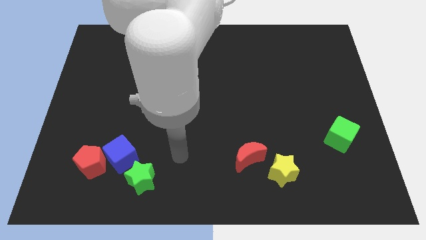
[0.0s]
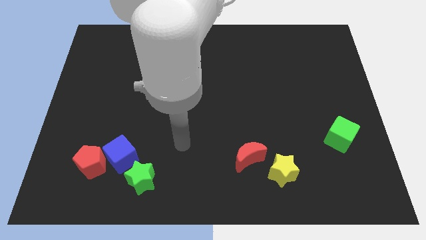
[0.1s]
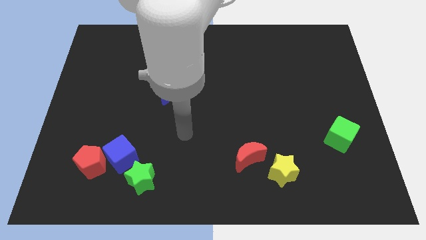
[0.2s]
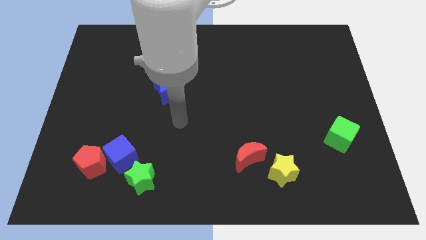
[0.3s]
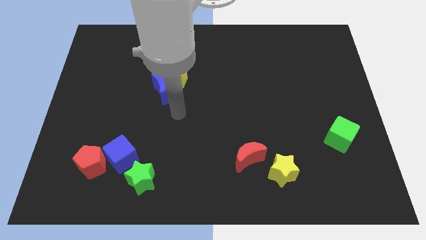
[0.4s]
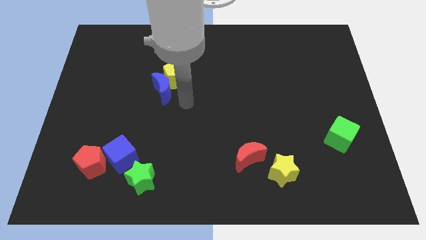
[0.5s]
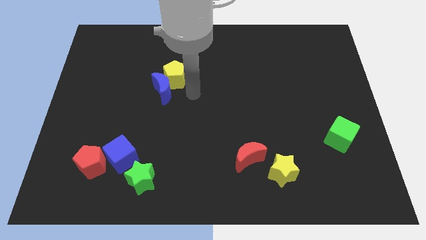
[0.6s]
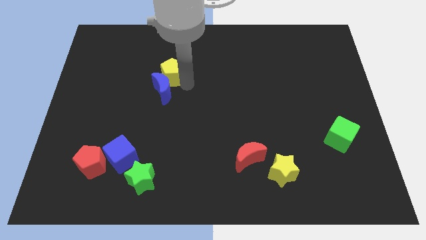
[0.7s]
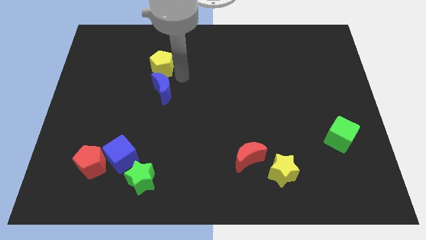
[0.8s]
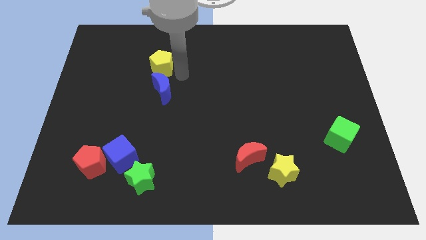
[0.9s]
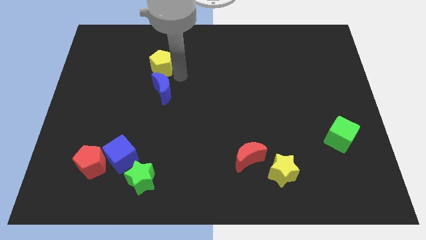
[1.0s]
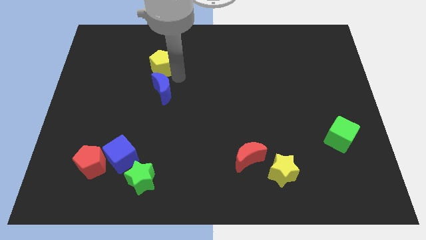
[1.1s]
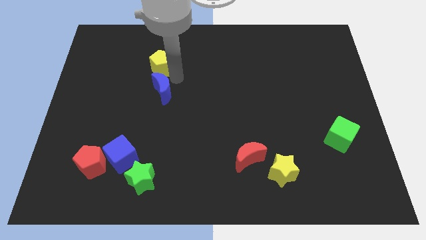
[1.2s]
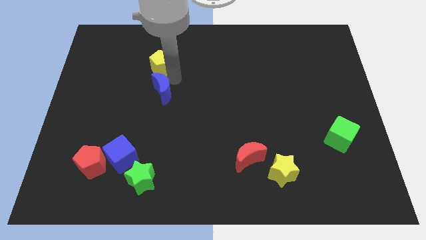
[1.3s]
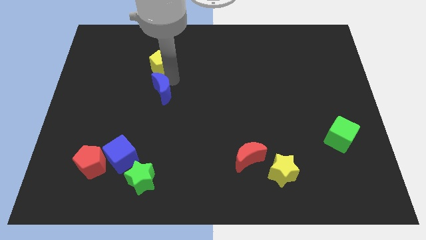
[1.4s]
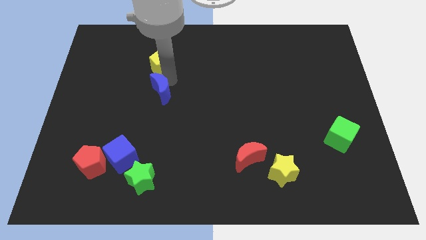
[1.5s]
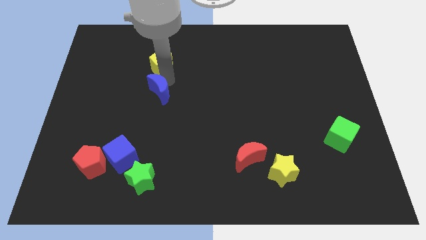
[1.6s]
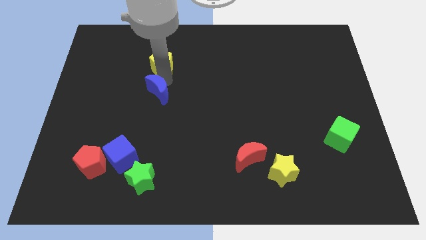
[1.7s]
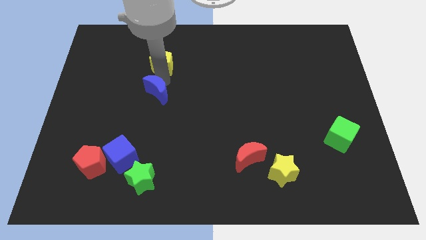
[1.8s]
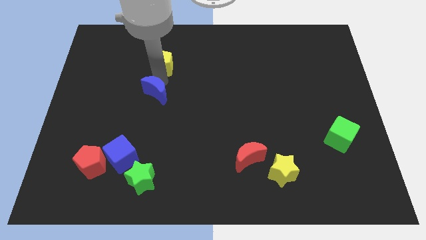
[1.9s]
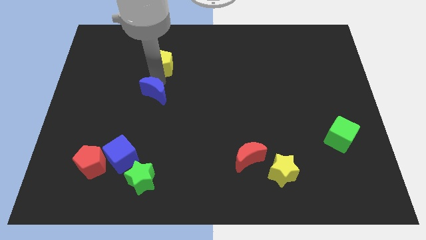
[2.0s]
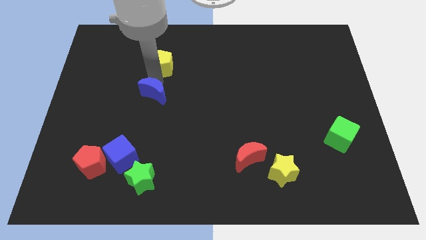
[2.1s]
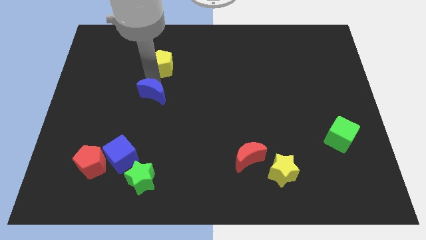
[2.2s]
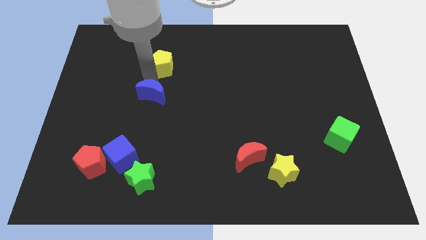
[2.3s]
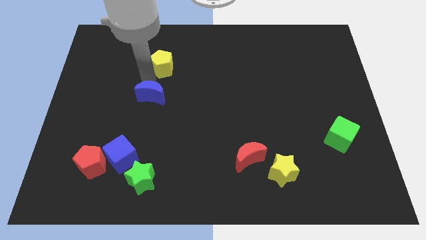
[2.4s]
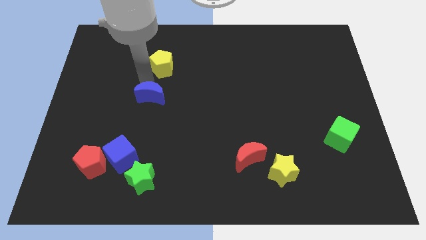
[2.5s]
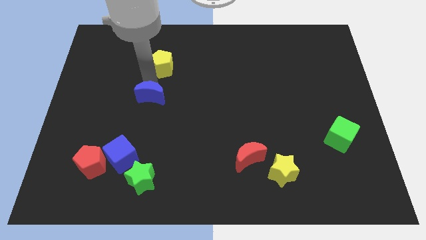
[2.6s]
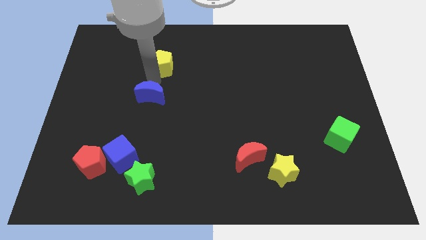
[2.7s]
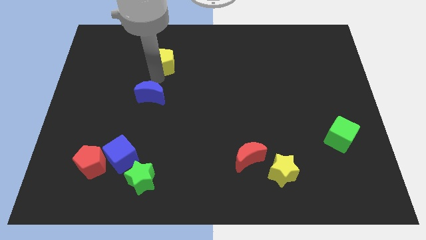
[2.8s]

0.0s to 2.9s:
pull the blue moon apart from the yellow pentagon

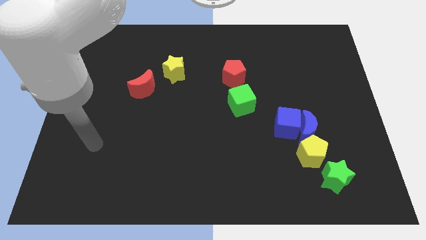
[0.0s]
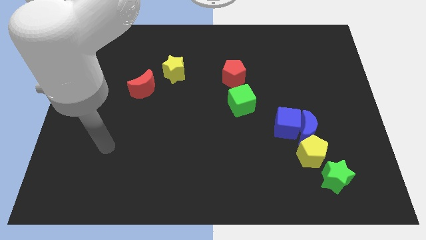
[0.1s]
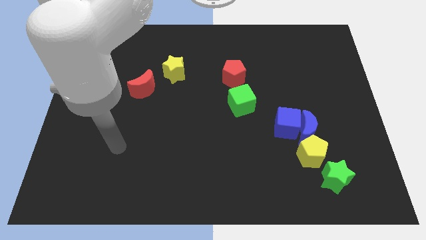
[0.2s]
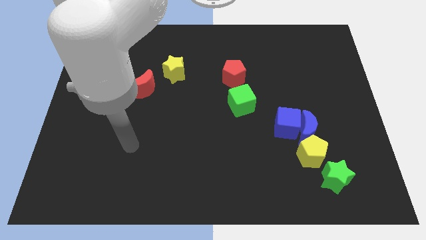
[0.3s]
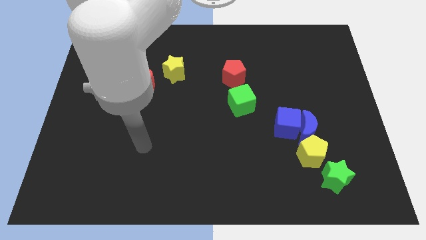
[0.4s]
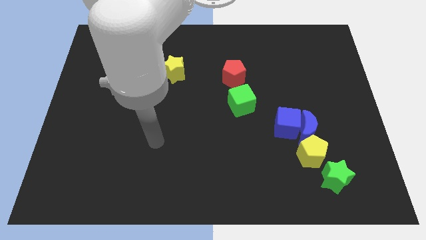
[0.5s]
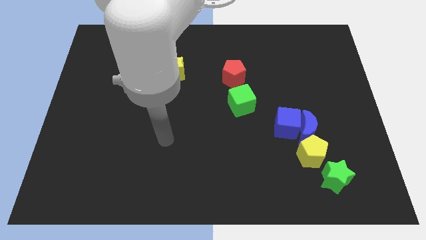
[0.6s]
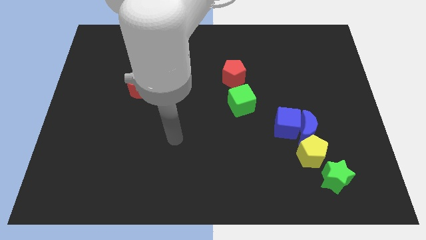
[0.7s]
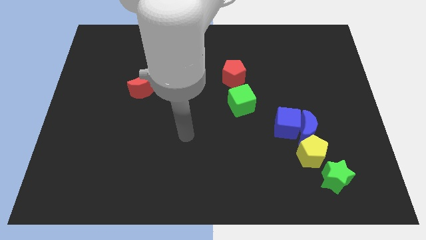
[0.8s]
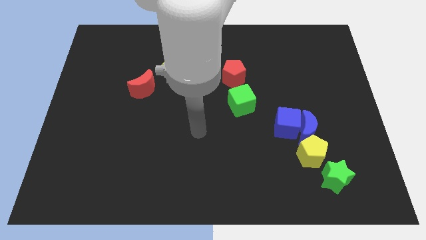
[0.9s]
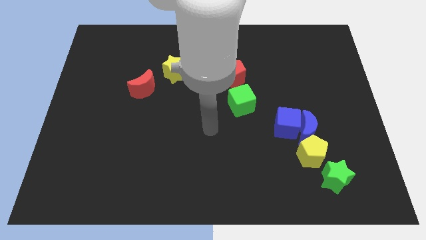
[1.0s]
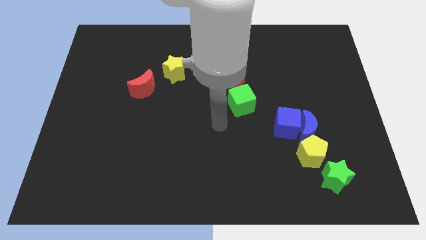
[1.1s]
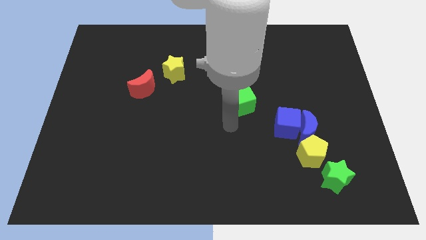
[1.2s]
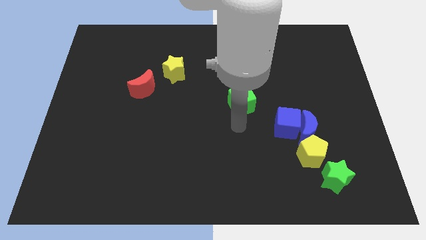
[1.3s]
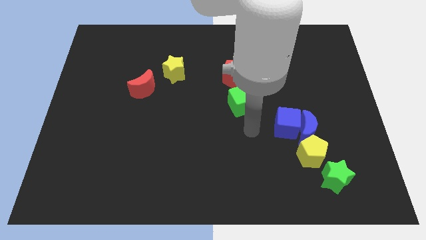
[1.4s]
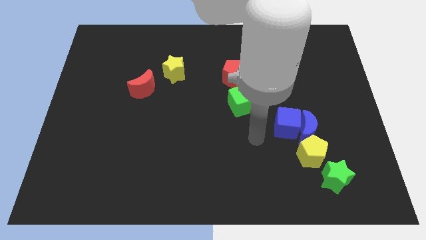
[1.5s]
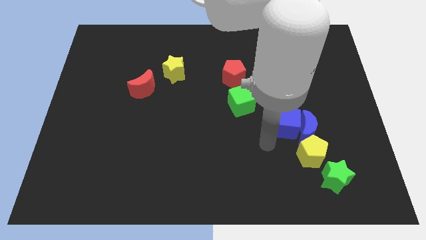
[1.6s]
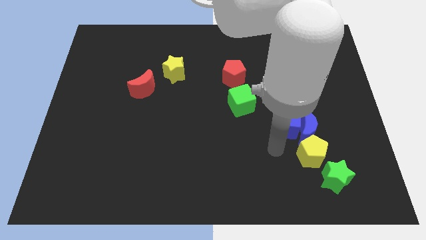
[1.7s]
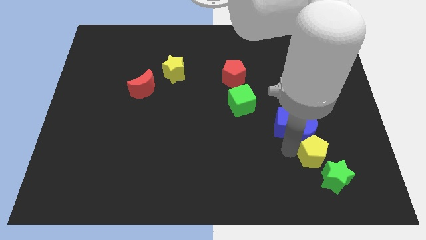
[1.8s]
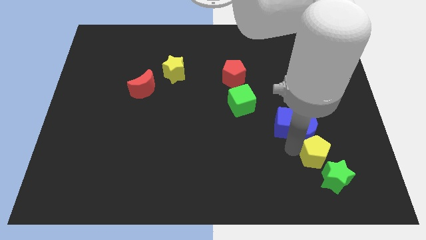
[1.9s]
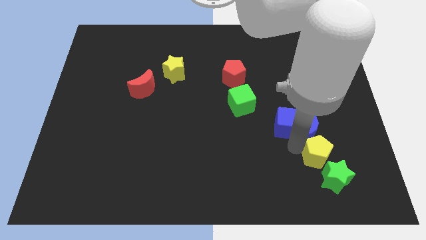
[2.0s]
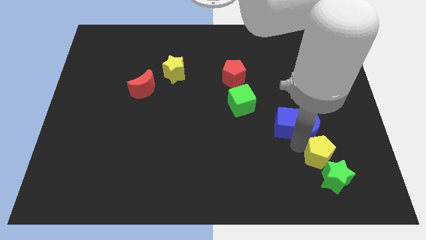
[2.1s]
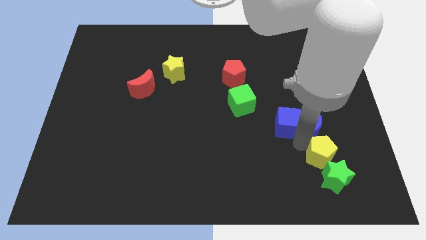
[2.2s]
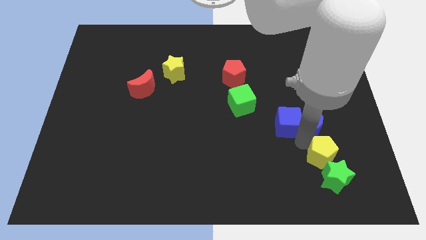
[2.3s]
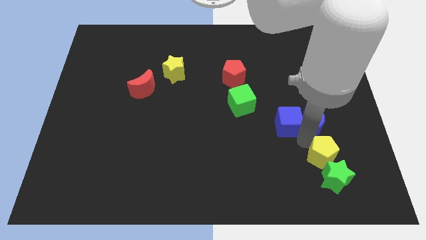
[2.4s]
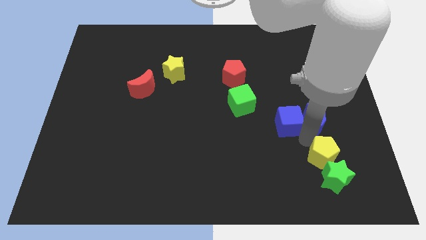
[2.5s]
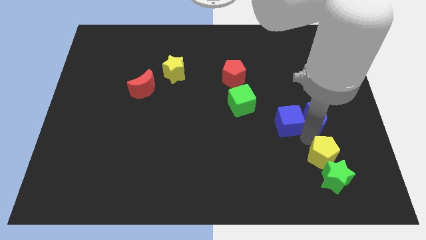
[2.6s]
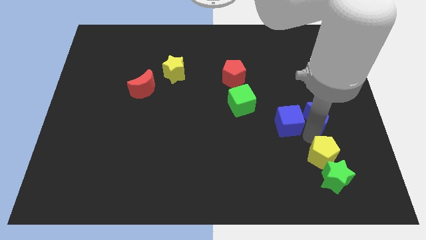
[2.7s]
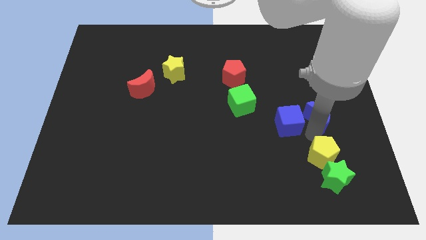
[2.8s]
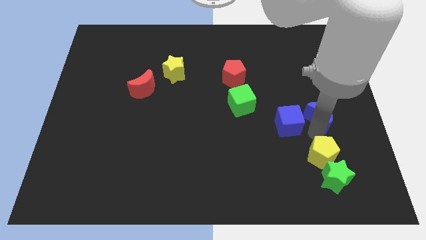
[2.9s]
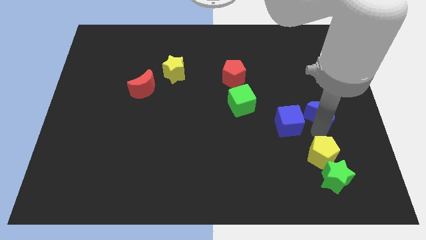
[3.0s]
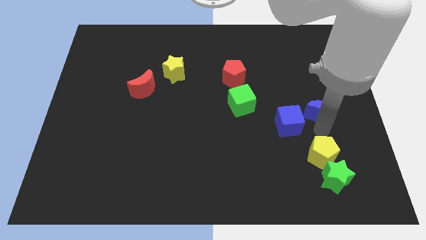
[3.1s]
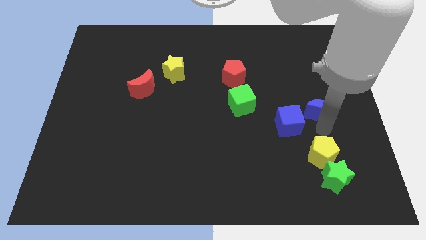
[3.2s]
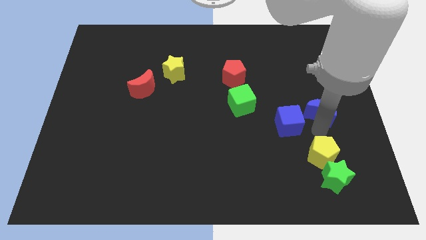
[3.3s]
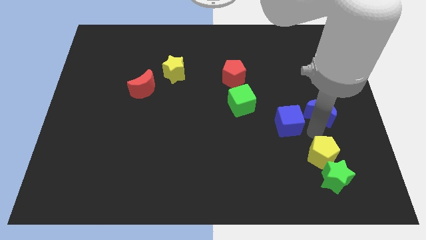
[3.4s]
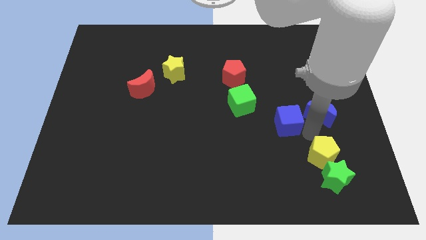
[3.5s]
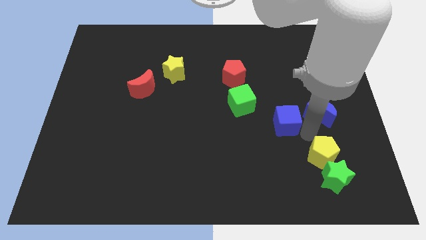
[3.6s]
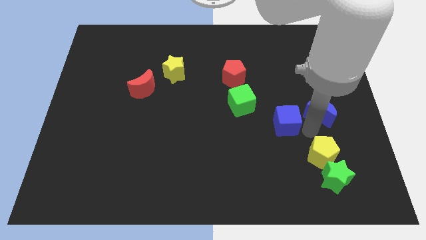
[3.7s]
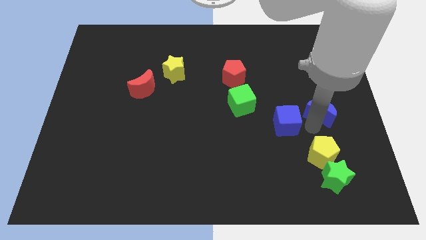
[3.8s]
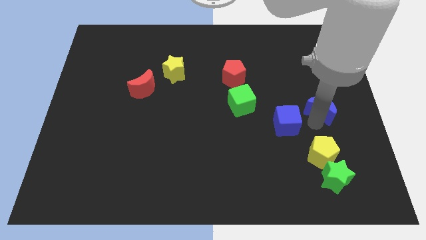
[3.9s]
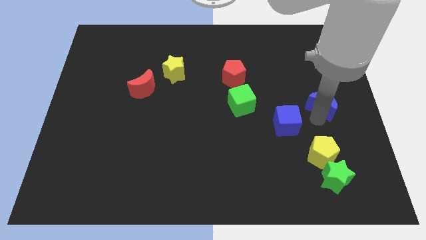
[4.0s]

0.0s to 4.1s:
separate the blue moon from the blue cube and yellow pentagon

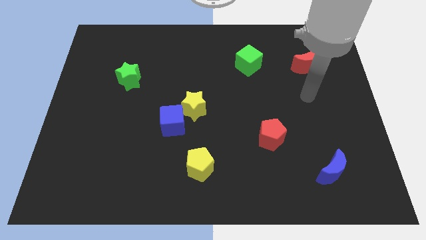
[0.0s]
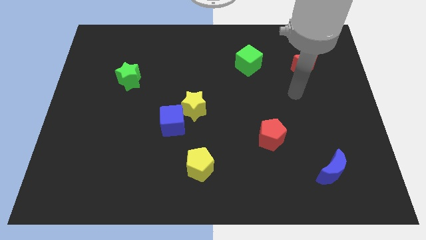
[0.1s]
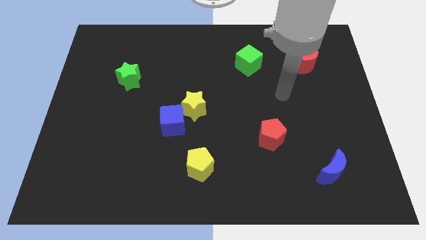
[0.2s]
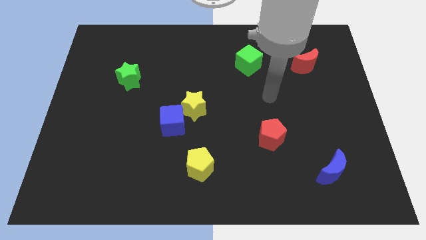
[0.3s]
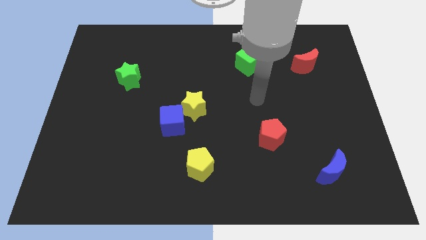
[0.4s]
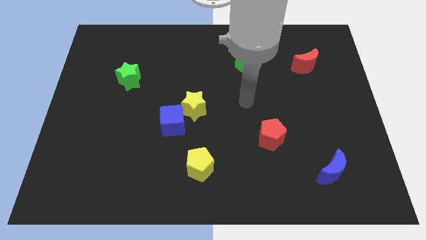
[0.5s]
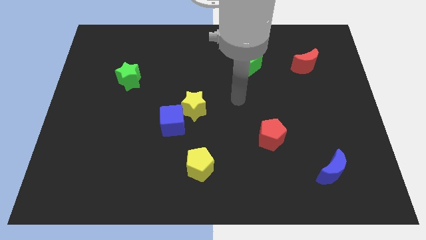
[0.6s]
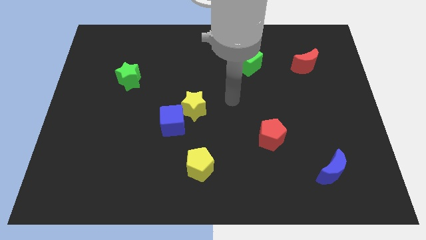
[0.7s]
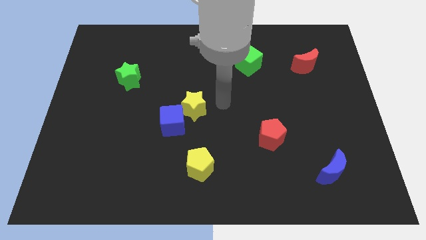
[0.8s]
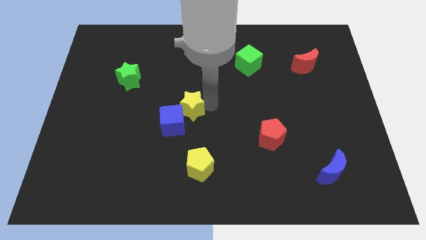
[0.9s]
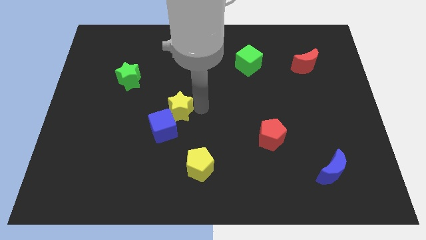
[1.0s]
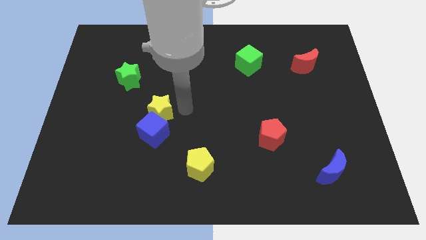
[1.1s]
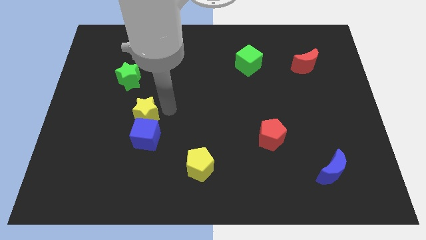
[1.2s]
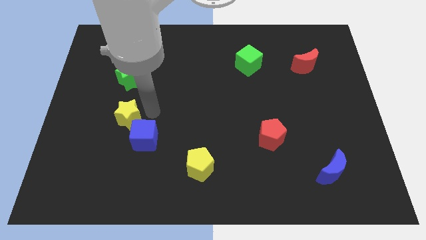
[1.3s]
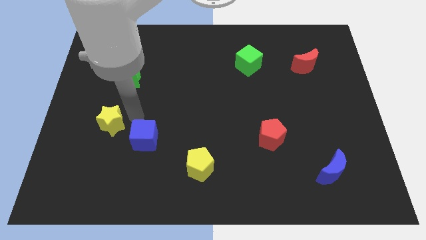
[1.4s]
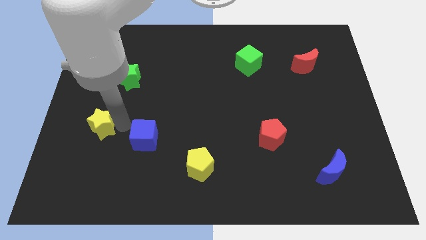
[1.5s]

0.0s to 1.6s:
move the blue cube away from the yellow star

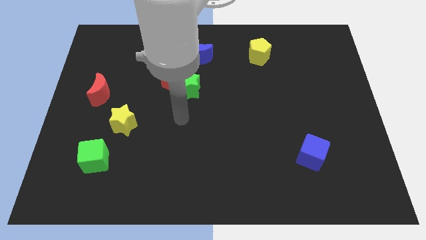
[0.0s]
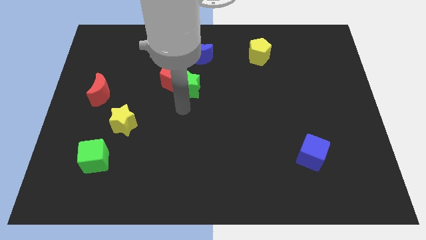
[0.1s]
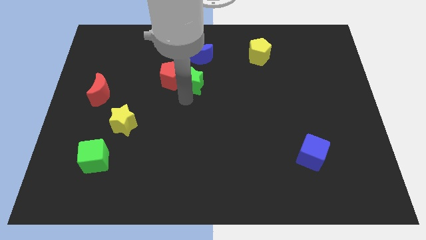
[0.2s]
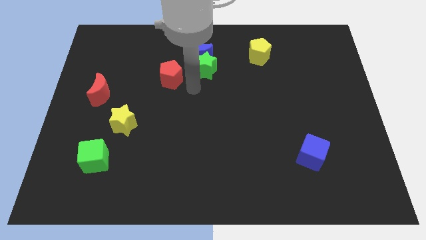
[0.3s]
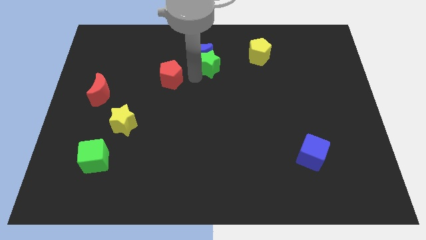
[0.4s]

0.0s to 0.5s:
separate the red pentagon from the green star

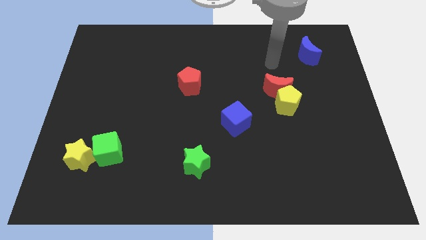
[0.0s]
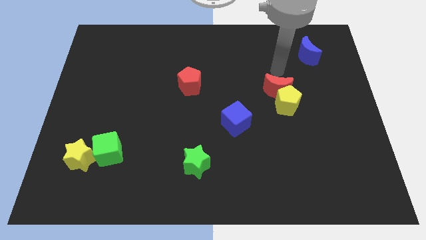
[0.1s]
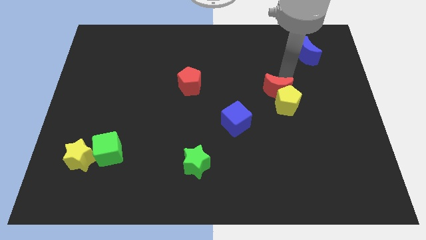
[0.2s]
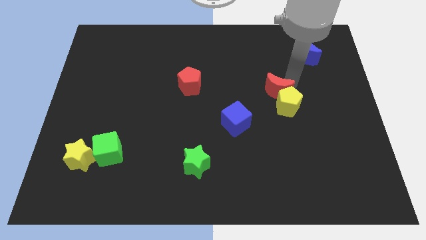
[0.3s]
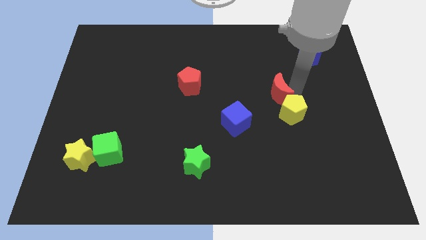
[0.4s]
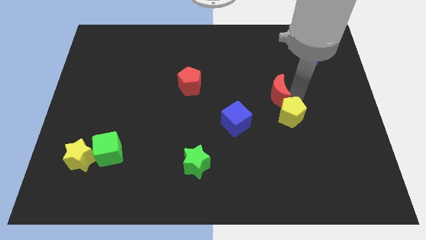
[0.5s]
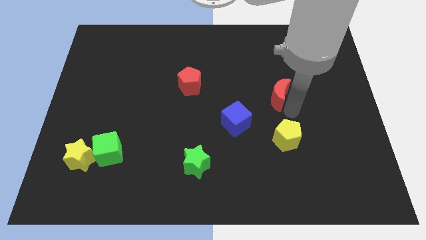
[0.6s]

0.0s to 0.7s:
pull the red moon apart from the yellow pentagon
